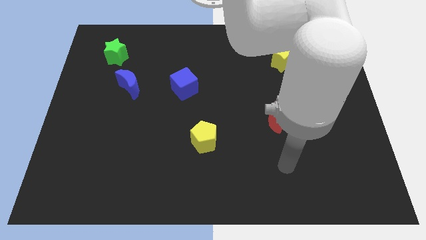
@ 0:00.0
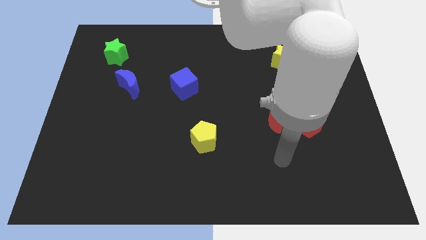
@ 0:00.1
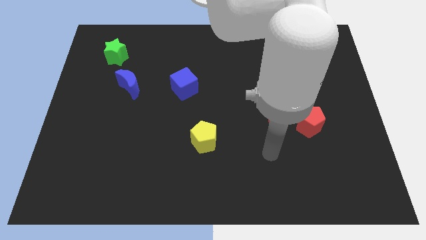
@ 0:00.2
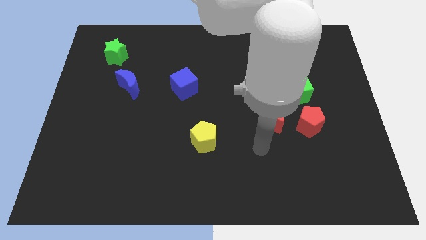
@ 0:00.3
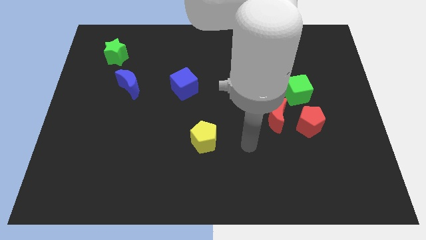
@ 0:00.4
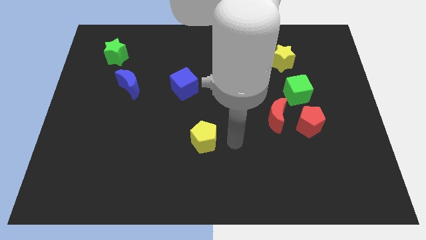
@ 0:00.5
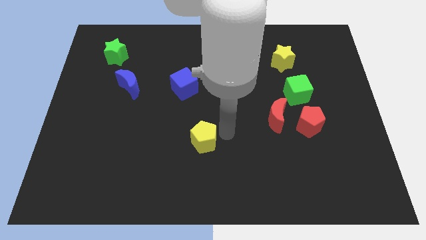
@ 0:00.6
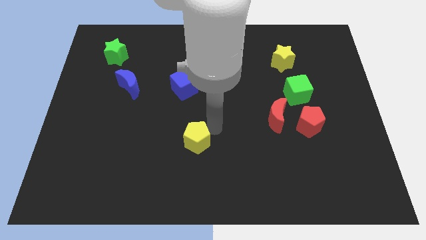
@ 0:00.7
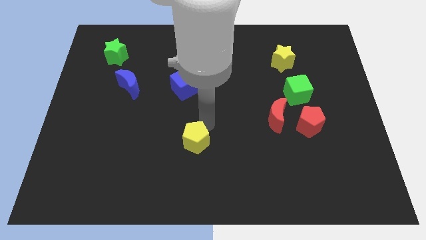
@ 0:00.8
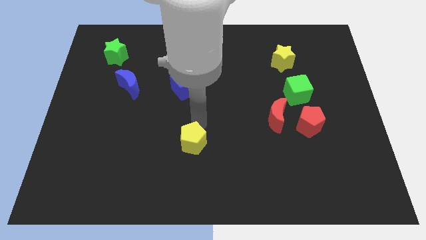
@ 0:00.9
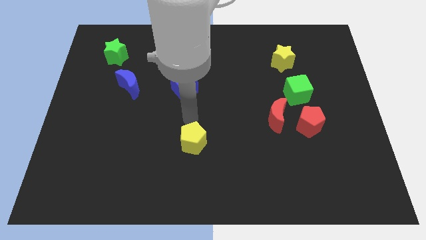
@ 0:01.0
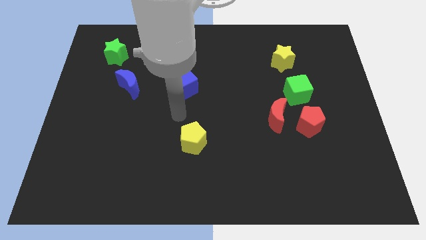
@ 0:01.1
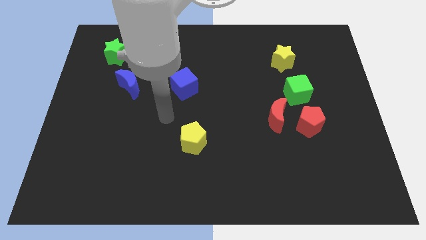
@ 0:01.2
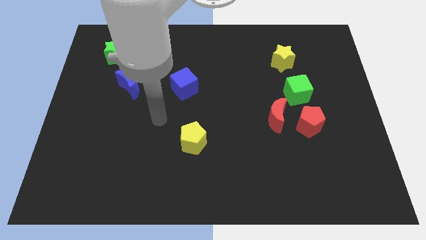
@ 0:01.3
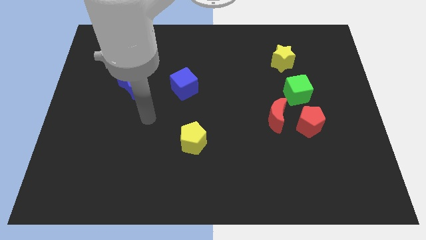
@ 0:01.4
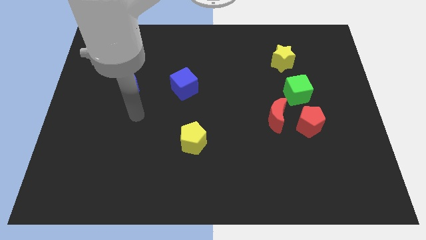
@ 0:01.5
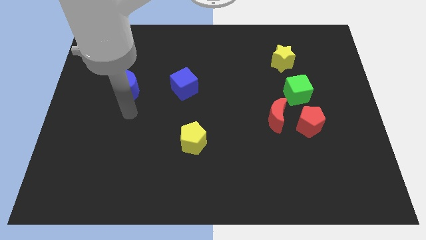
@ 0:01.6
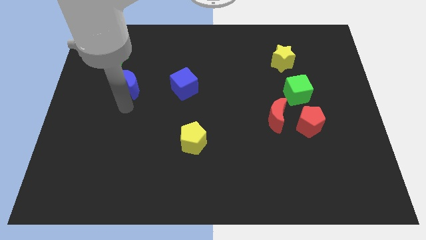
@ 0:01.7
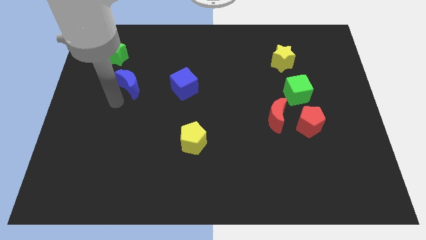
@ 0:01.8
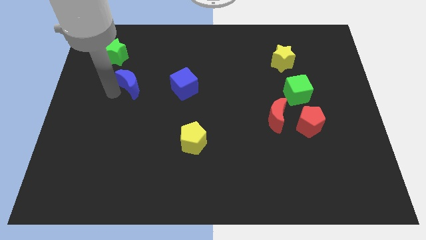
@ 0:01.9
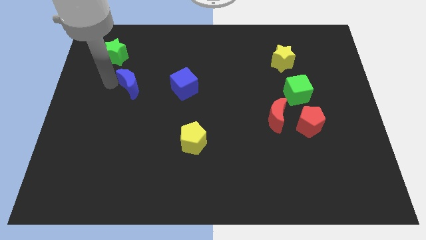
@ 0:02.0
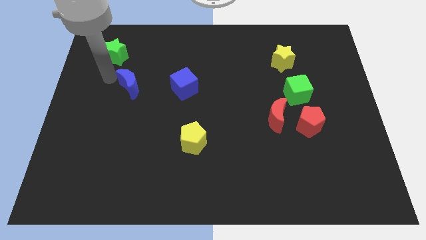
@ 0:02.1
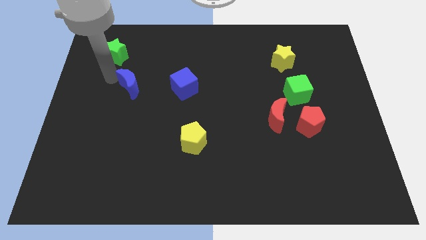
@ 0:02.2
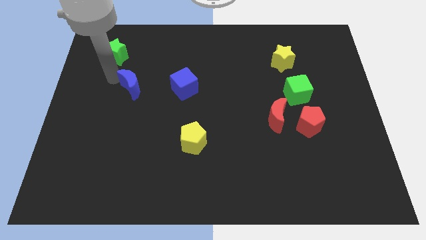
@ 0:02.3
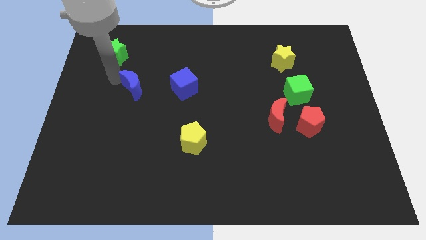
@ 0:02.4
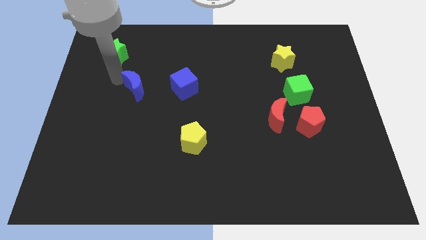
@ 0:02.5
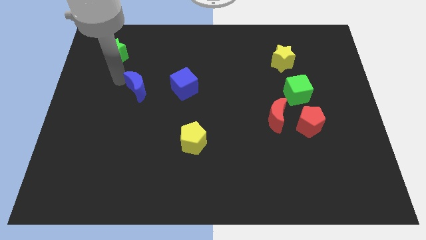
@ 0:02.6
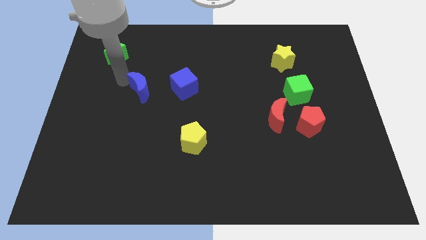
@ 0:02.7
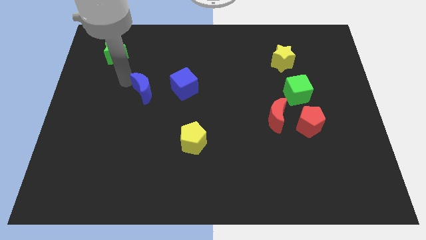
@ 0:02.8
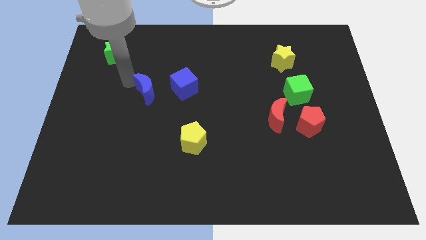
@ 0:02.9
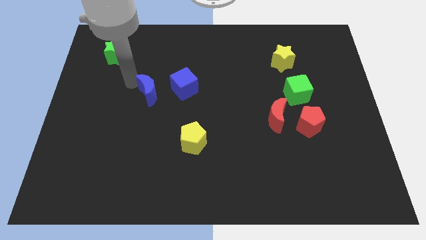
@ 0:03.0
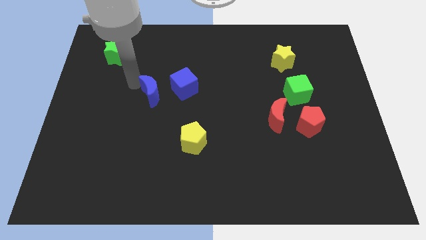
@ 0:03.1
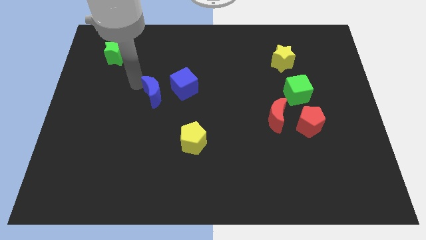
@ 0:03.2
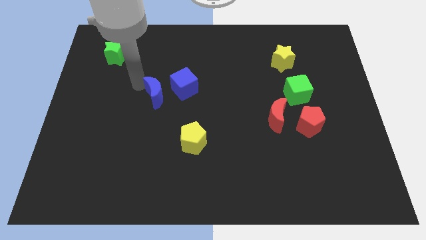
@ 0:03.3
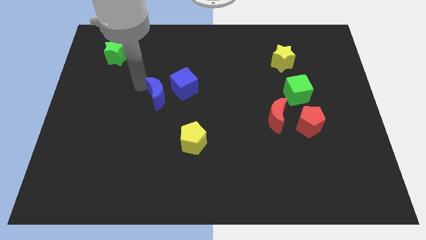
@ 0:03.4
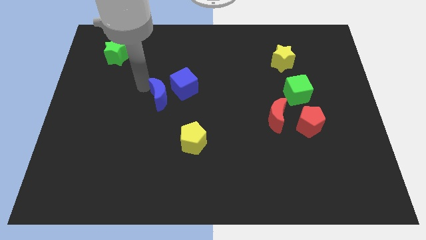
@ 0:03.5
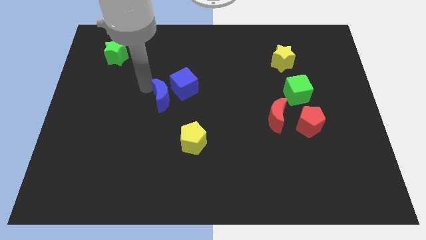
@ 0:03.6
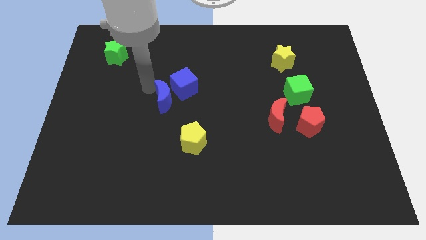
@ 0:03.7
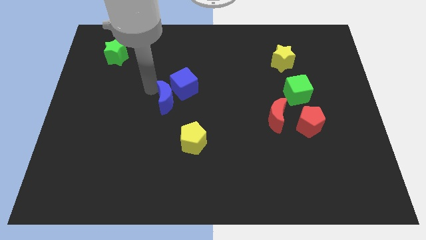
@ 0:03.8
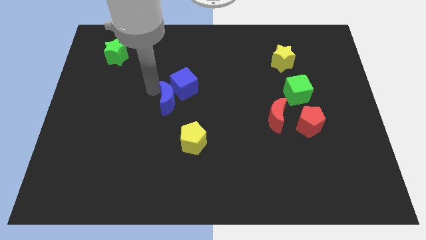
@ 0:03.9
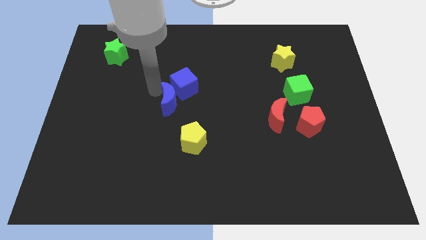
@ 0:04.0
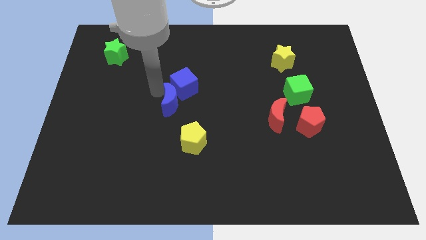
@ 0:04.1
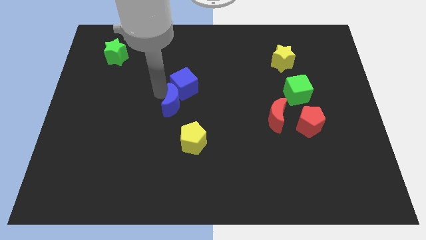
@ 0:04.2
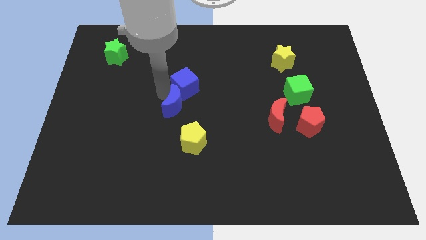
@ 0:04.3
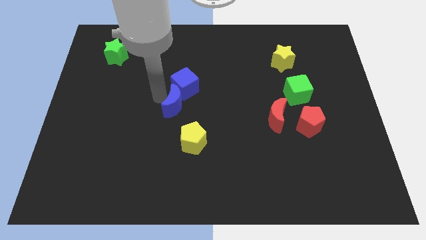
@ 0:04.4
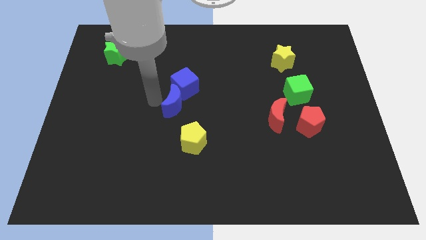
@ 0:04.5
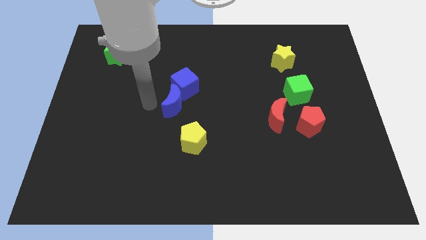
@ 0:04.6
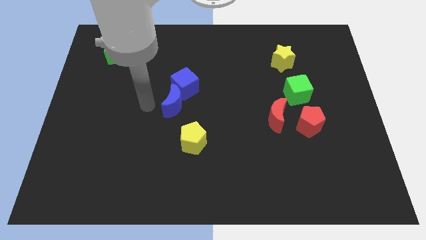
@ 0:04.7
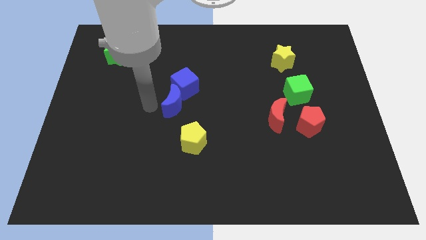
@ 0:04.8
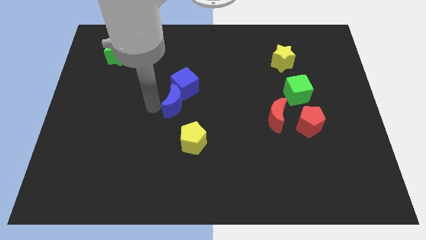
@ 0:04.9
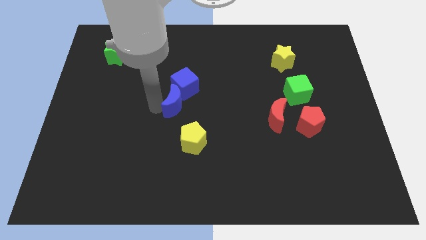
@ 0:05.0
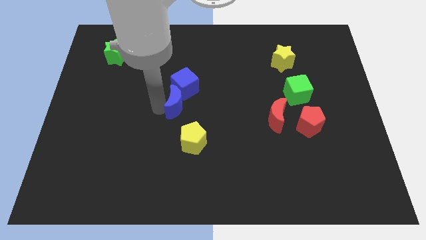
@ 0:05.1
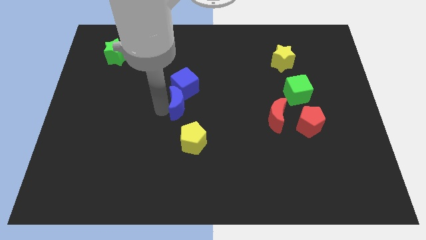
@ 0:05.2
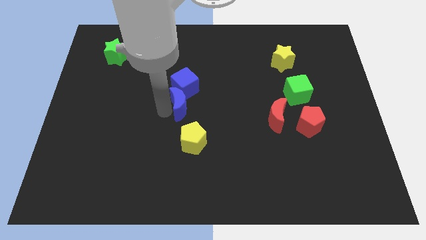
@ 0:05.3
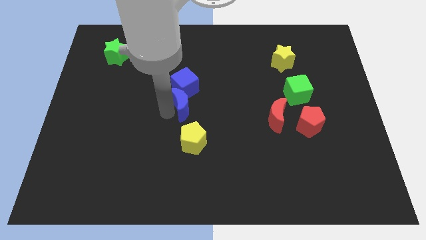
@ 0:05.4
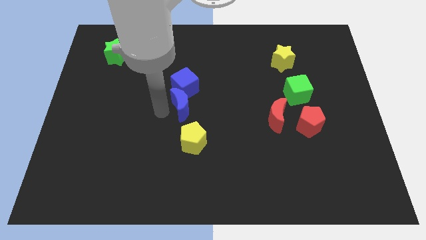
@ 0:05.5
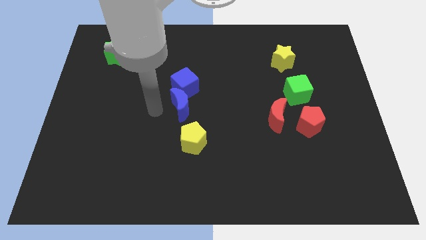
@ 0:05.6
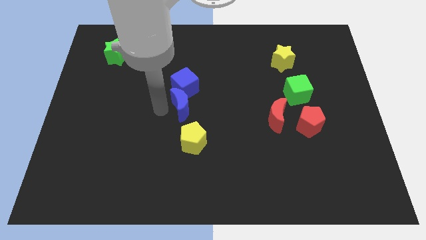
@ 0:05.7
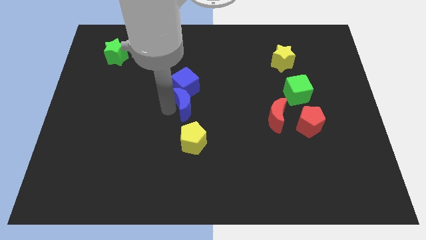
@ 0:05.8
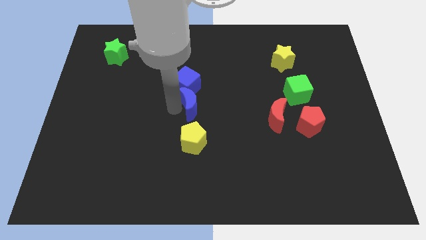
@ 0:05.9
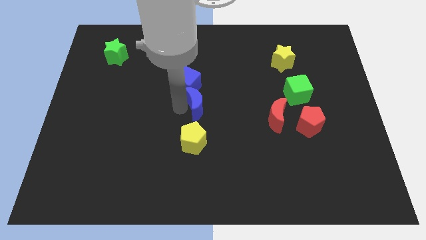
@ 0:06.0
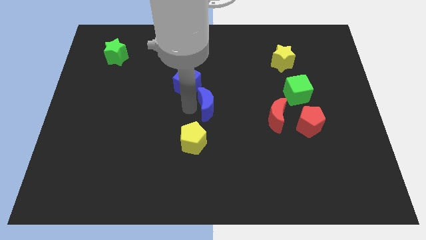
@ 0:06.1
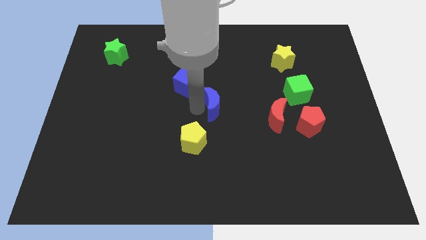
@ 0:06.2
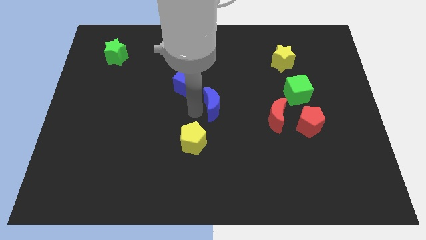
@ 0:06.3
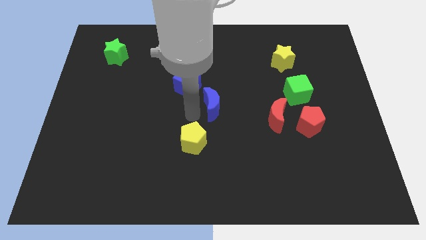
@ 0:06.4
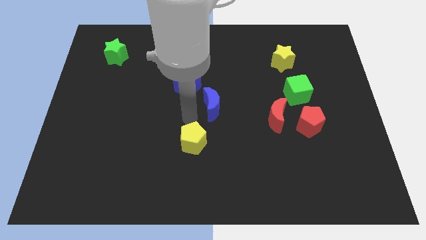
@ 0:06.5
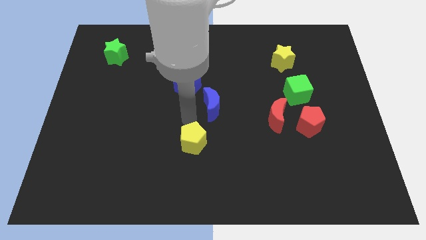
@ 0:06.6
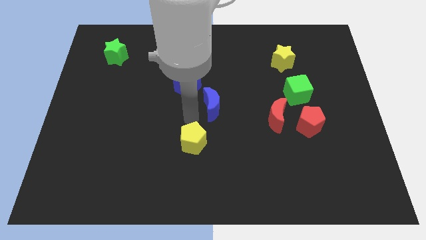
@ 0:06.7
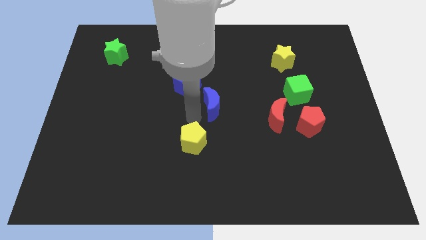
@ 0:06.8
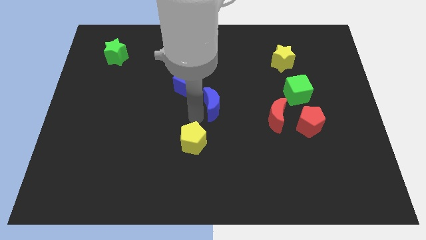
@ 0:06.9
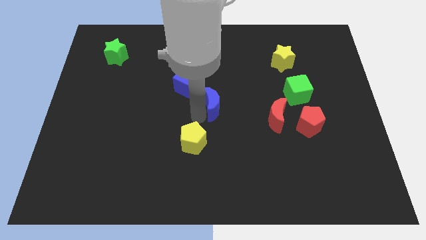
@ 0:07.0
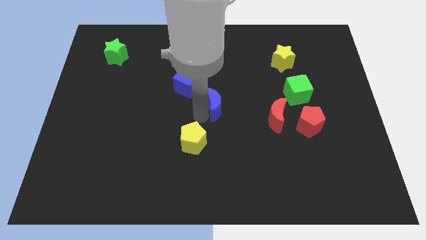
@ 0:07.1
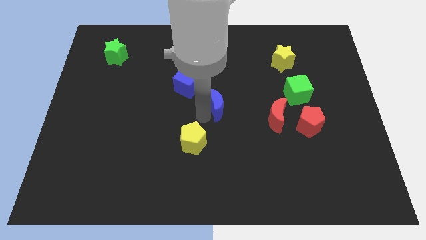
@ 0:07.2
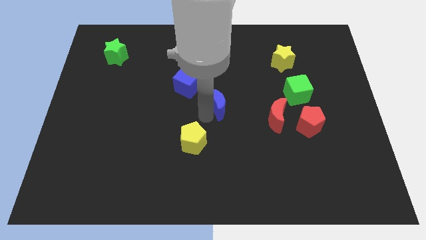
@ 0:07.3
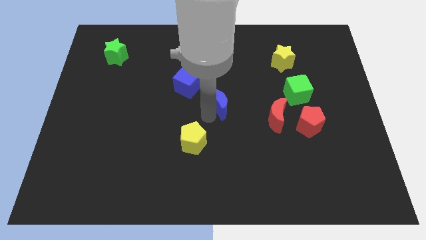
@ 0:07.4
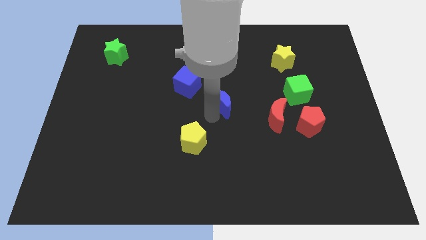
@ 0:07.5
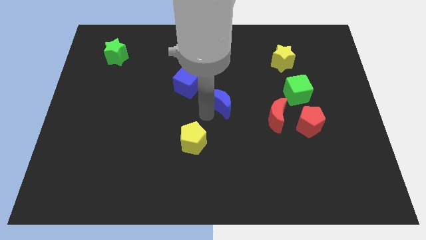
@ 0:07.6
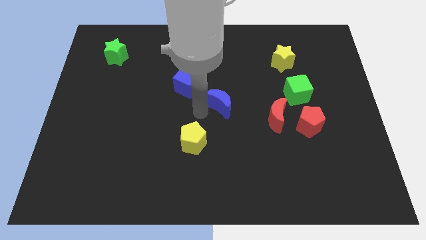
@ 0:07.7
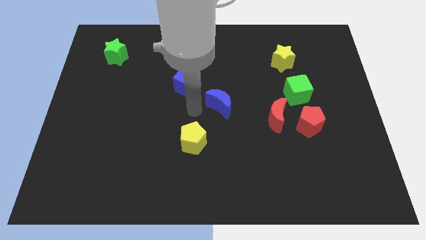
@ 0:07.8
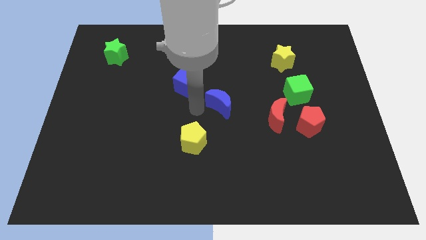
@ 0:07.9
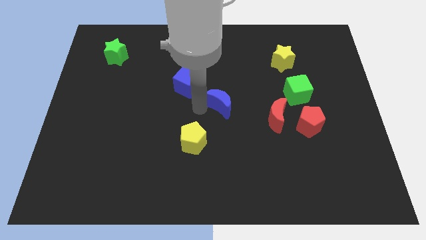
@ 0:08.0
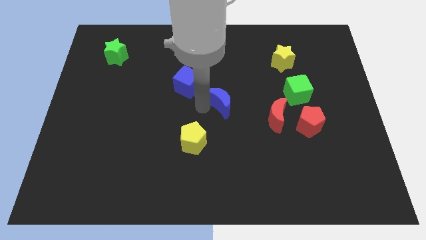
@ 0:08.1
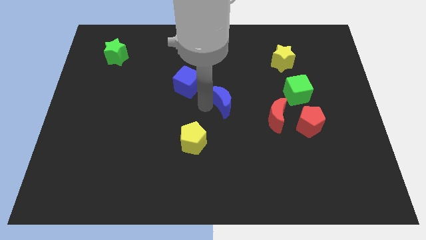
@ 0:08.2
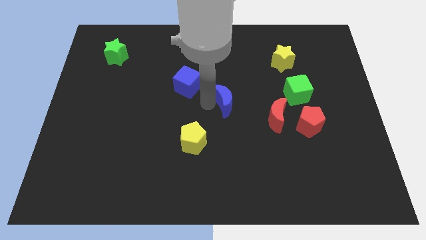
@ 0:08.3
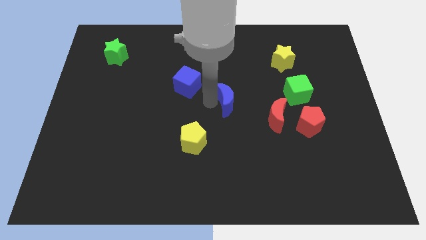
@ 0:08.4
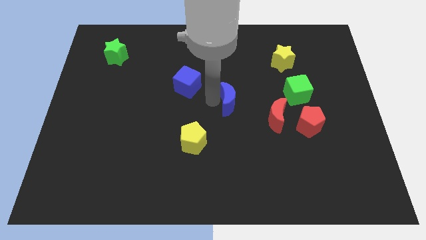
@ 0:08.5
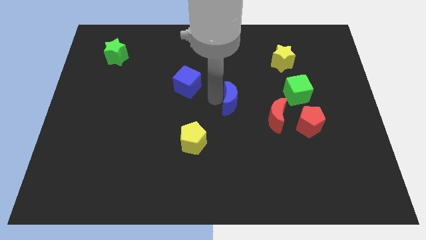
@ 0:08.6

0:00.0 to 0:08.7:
put the blue moon diagonally up and to the left of the red moon
